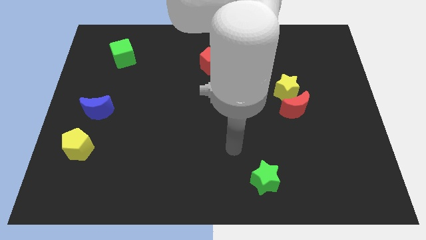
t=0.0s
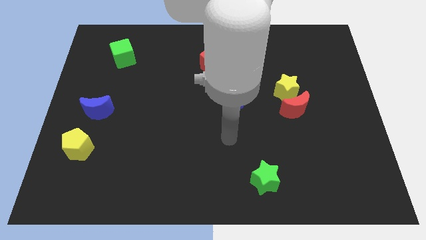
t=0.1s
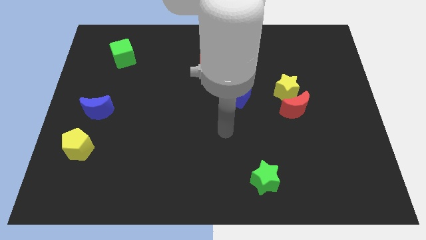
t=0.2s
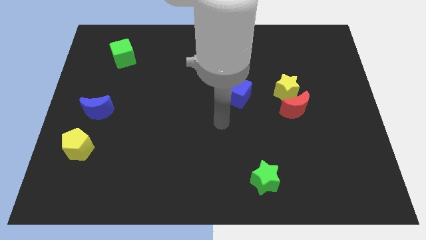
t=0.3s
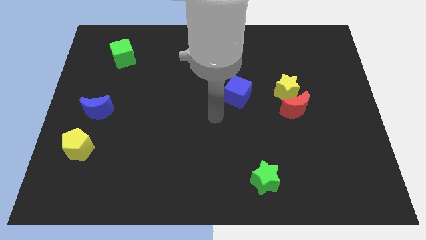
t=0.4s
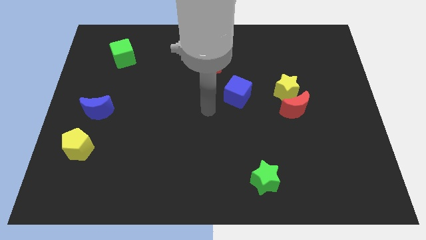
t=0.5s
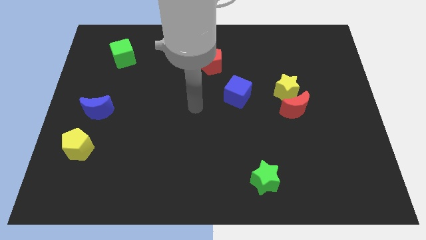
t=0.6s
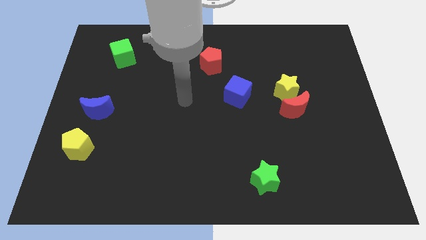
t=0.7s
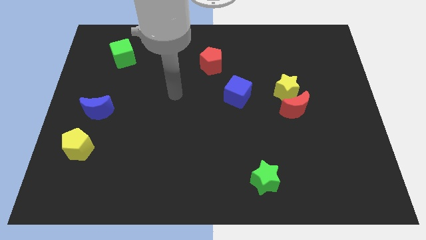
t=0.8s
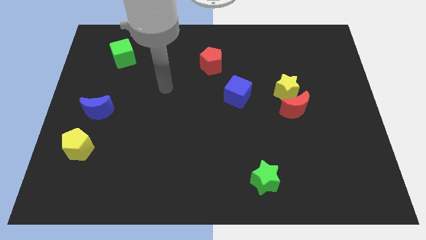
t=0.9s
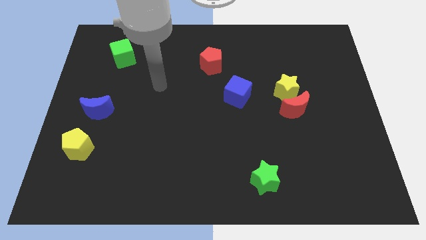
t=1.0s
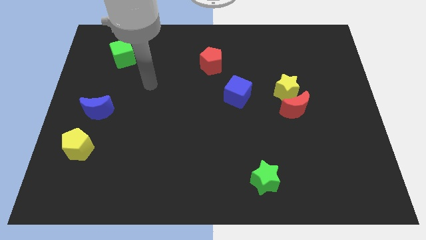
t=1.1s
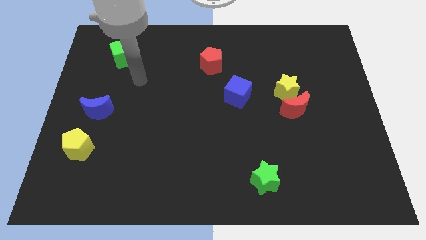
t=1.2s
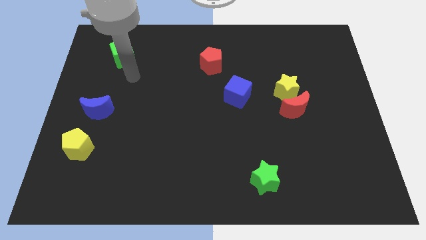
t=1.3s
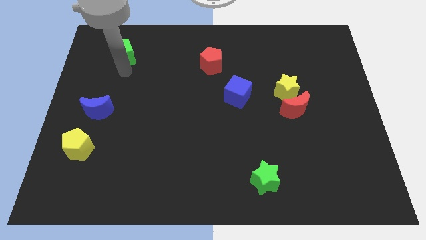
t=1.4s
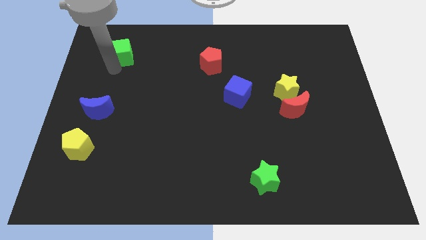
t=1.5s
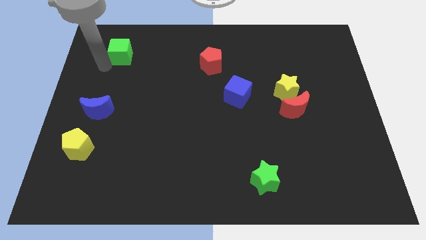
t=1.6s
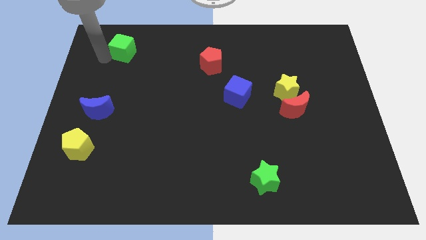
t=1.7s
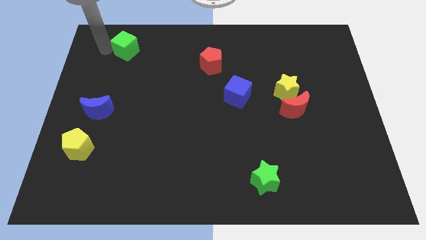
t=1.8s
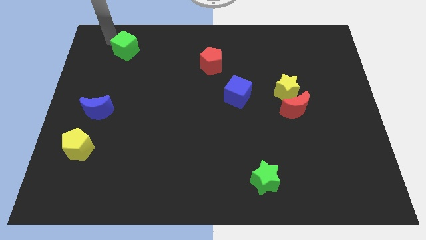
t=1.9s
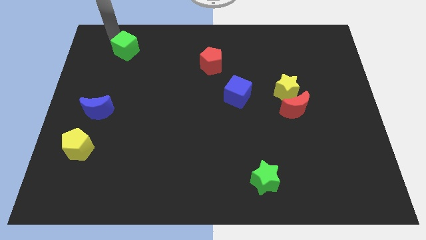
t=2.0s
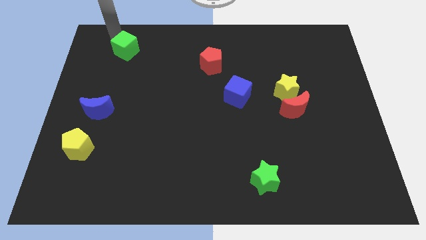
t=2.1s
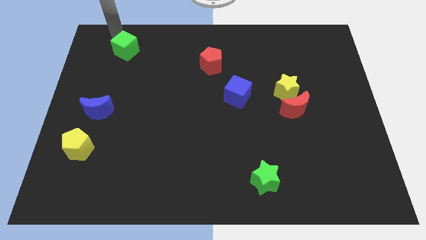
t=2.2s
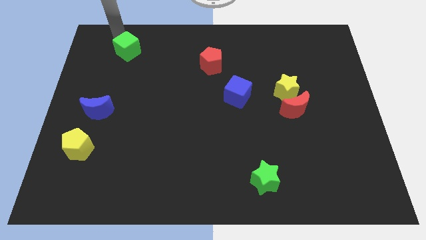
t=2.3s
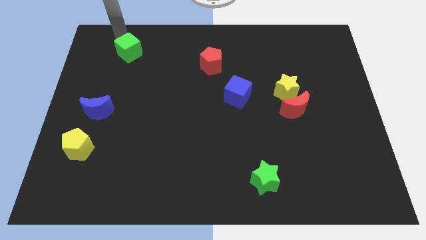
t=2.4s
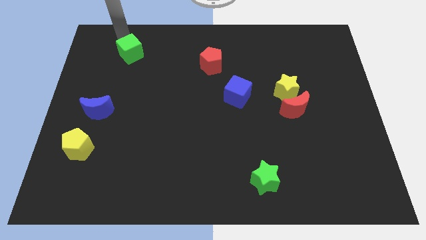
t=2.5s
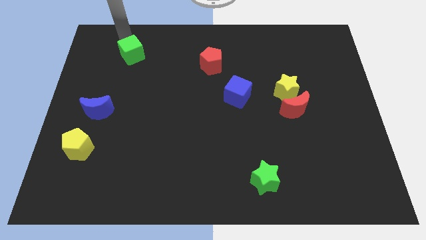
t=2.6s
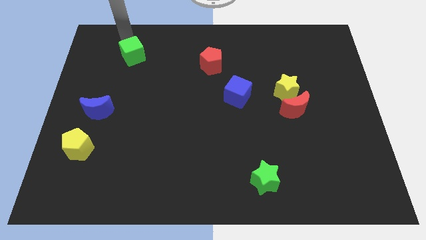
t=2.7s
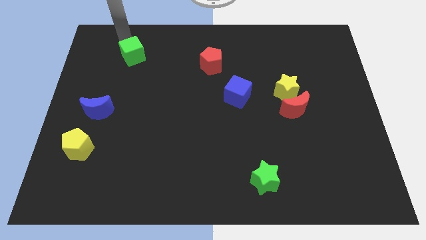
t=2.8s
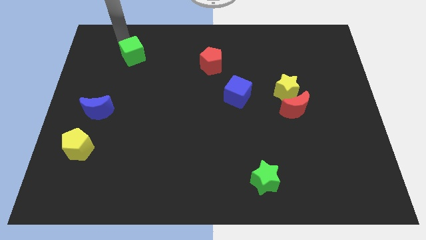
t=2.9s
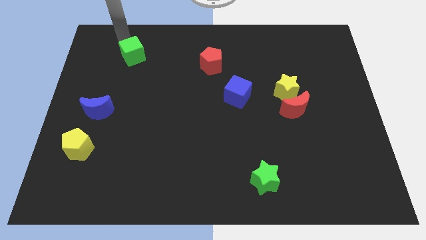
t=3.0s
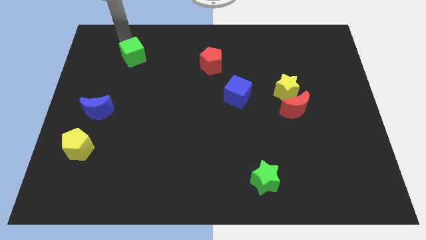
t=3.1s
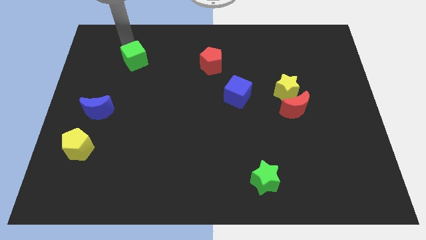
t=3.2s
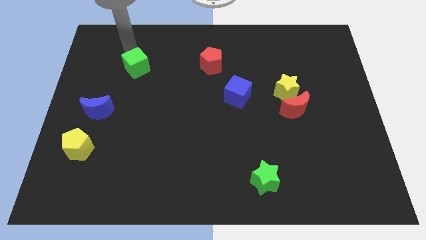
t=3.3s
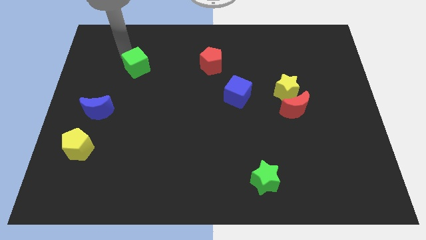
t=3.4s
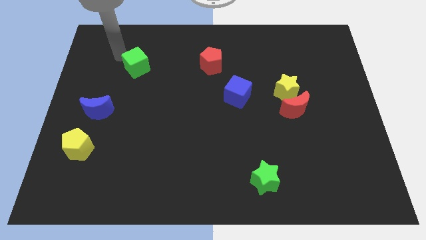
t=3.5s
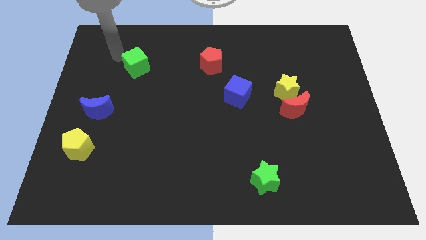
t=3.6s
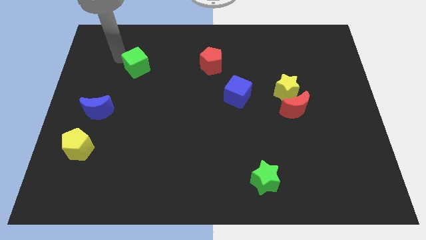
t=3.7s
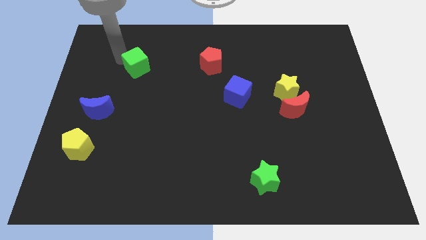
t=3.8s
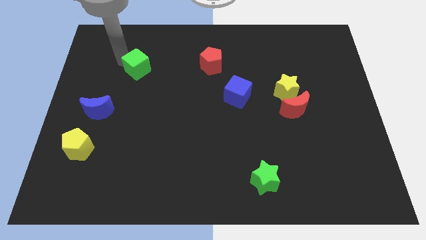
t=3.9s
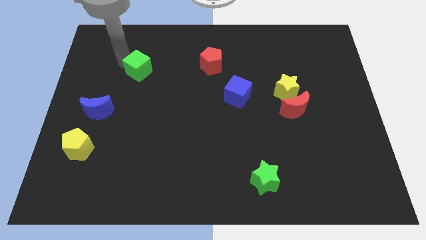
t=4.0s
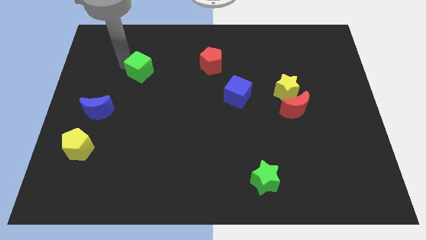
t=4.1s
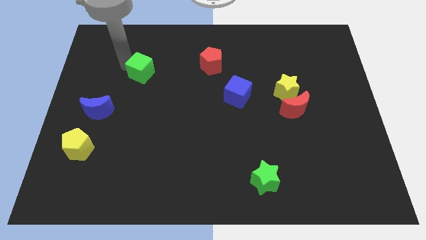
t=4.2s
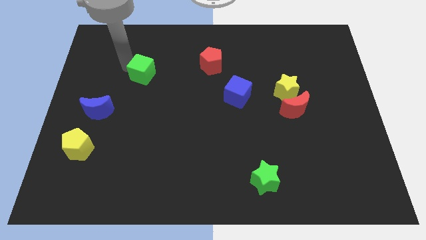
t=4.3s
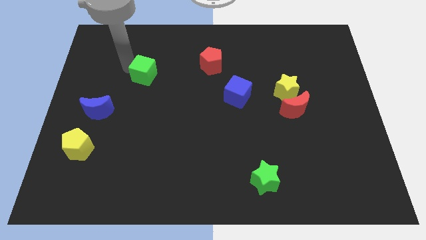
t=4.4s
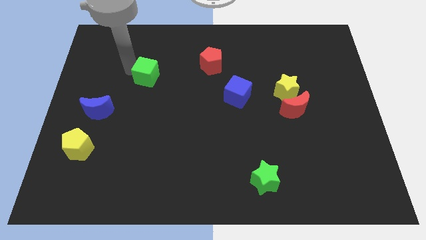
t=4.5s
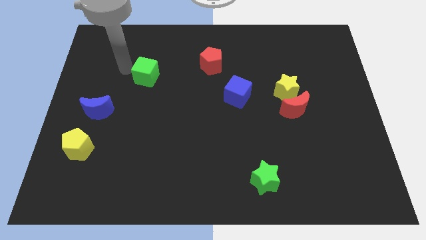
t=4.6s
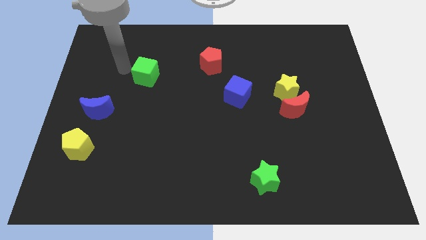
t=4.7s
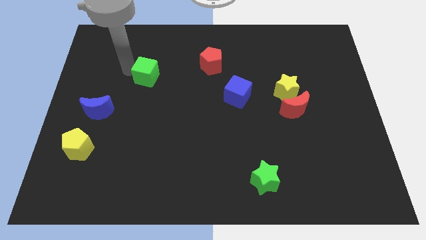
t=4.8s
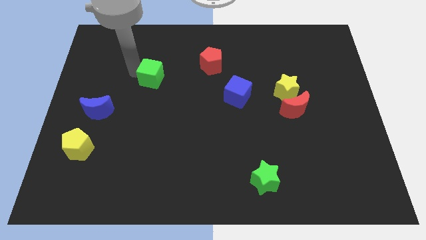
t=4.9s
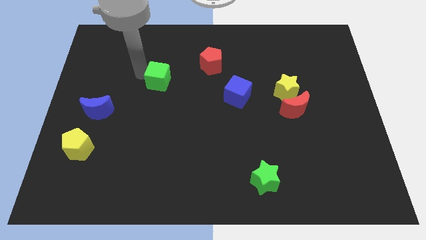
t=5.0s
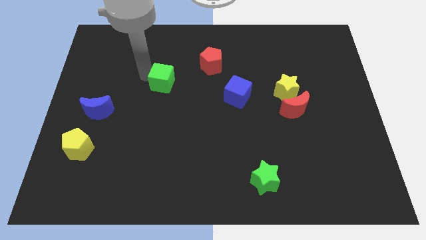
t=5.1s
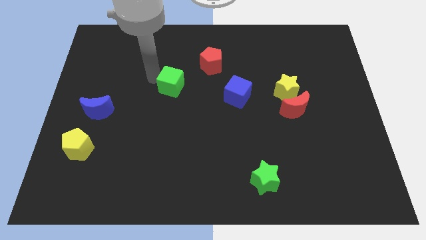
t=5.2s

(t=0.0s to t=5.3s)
slide the green cube to the middle
